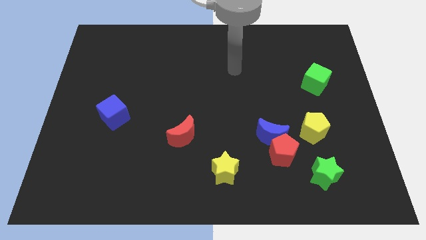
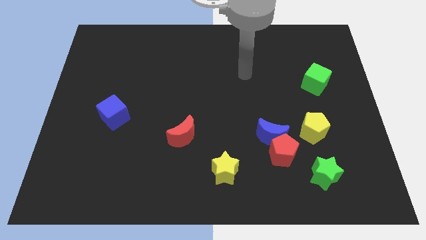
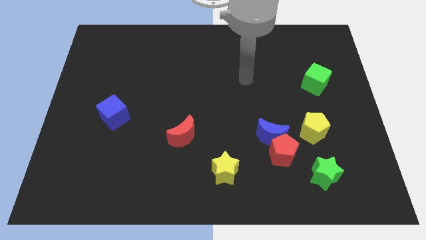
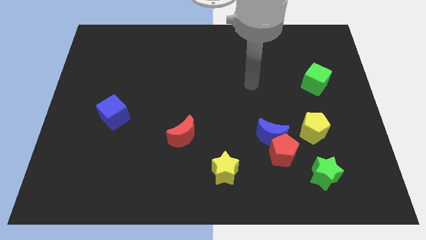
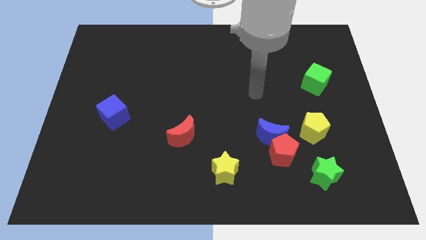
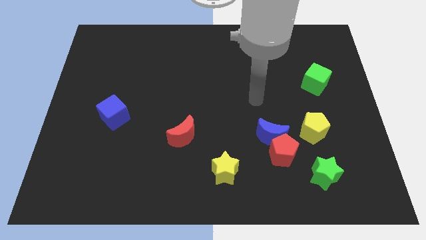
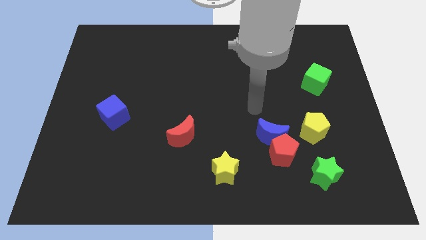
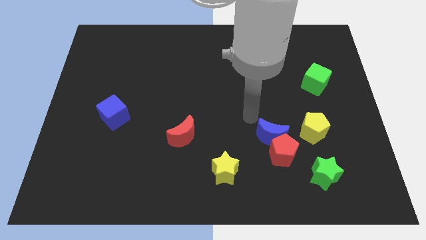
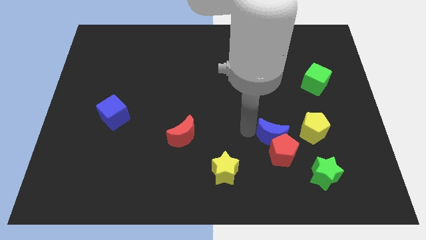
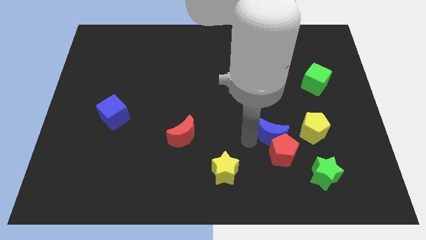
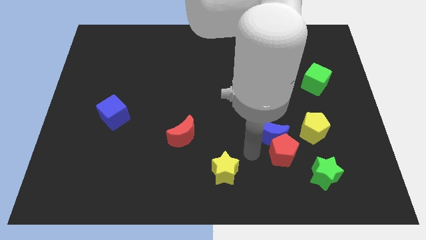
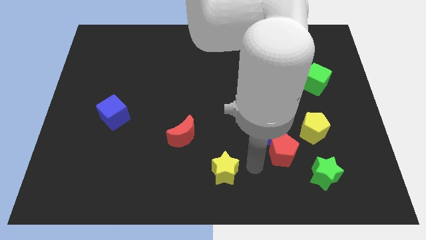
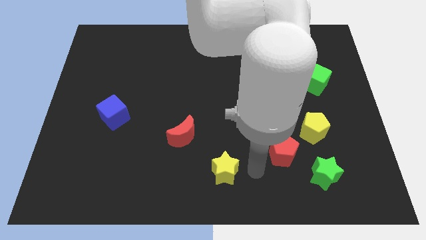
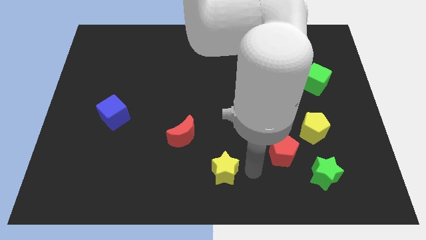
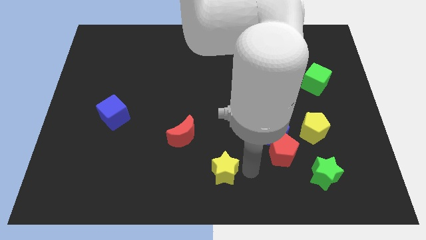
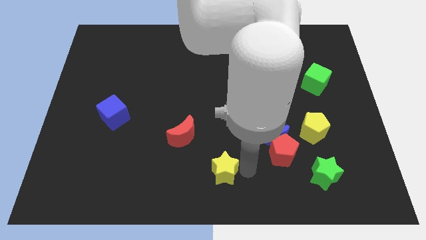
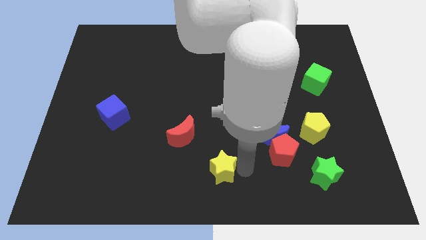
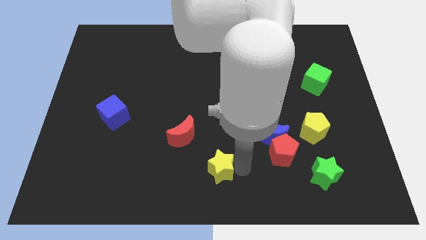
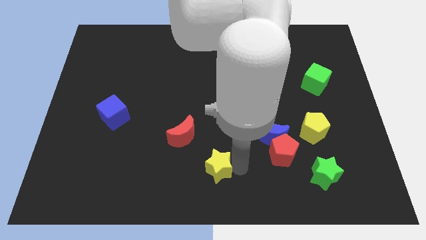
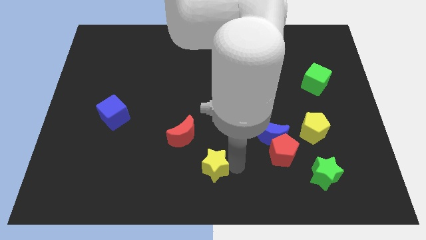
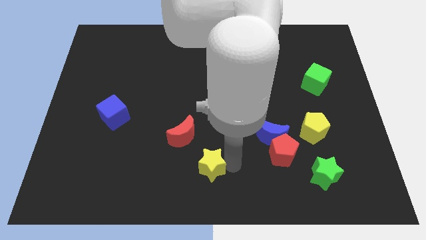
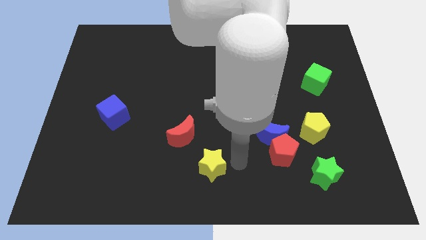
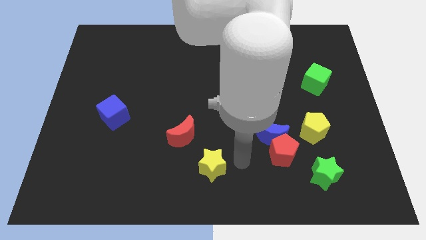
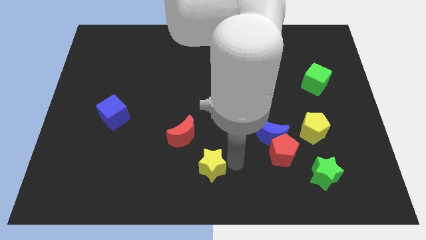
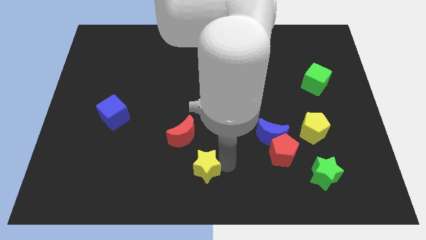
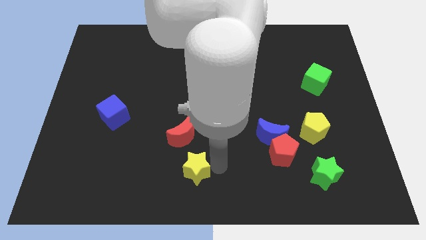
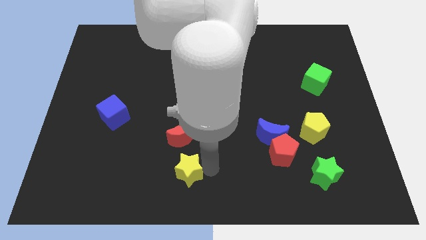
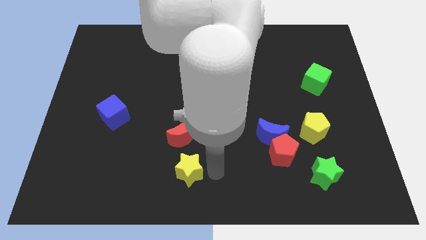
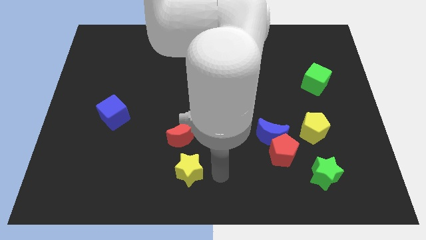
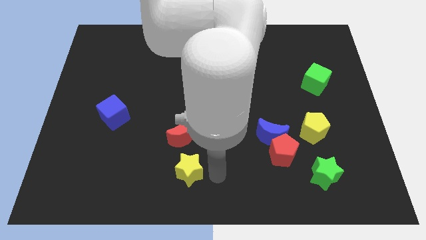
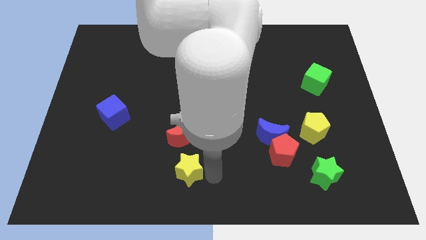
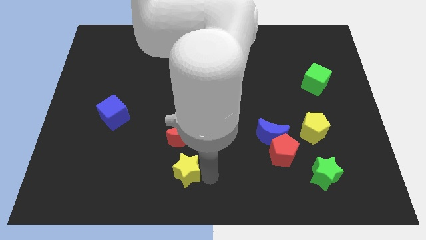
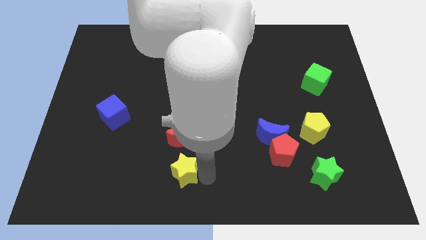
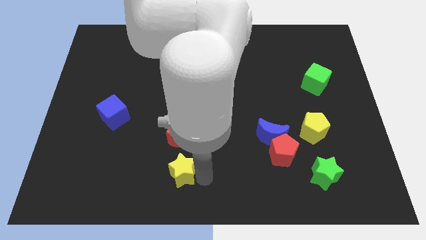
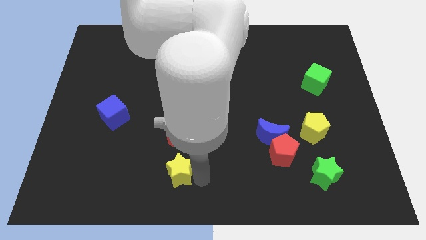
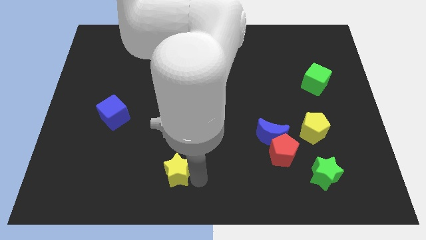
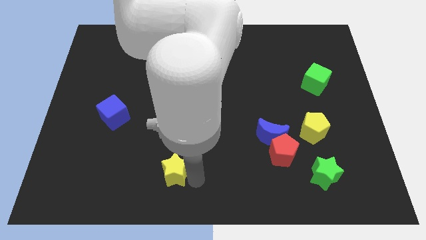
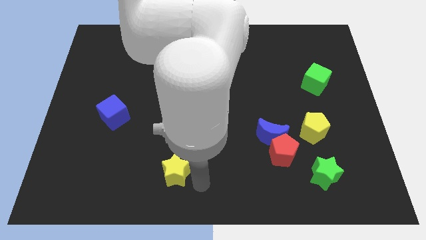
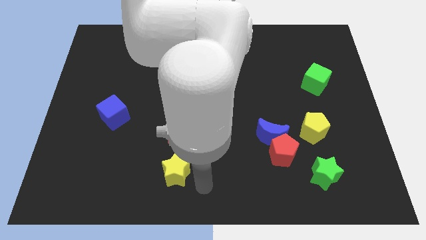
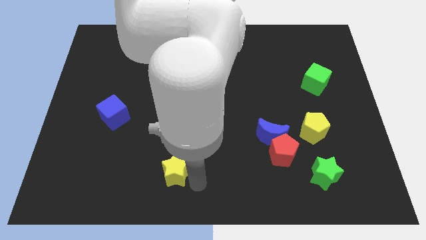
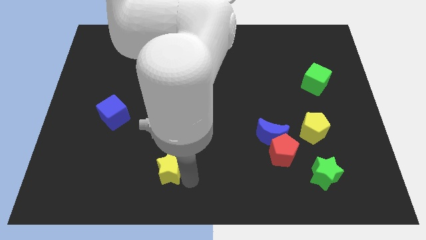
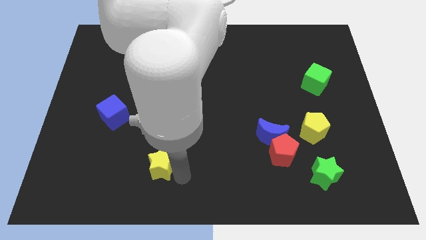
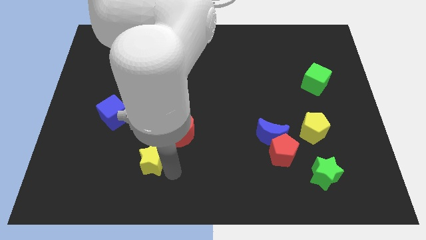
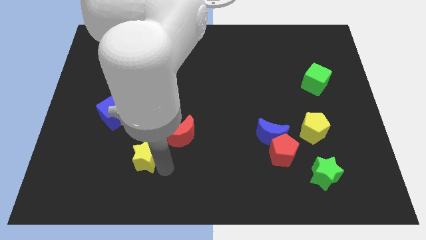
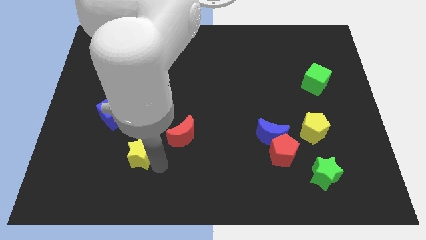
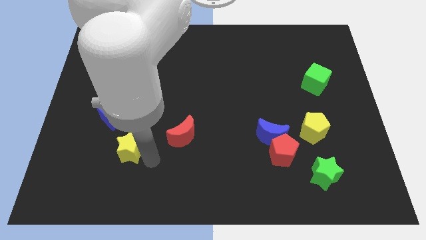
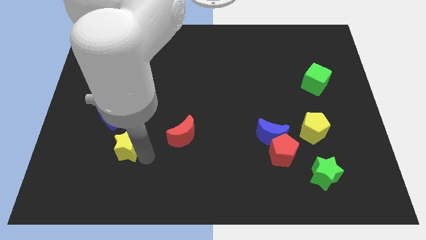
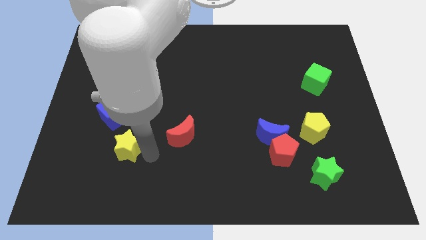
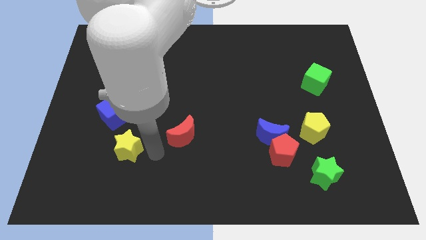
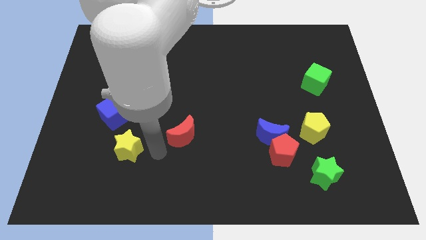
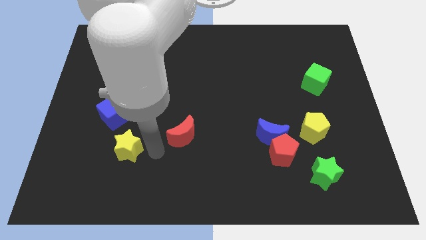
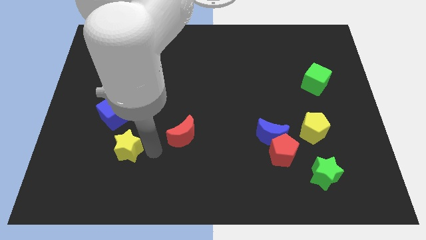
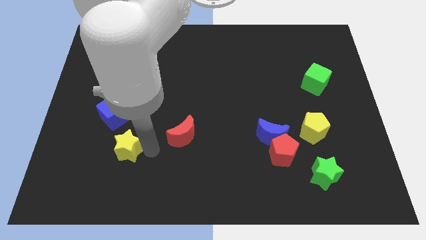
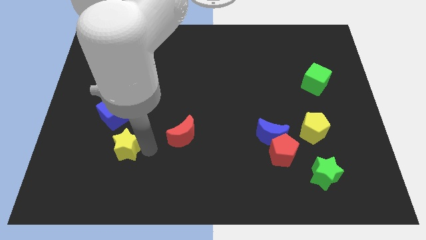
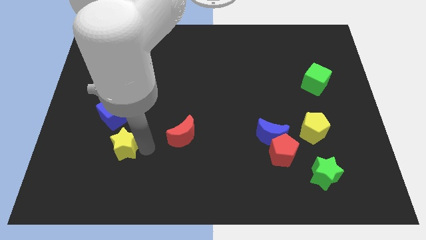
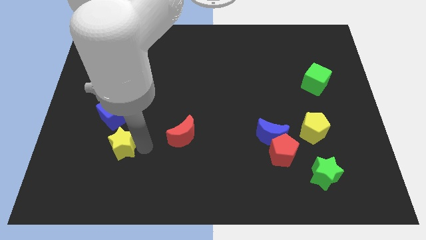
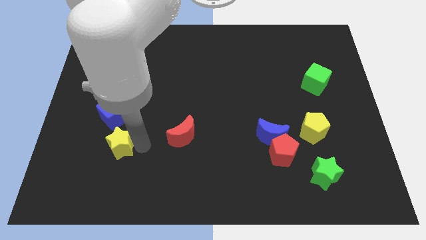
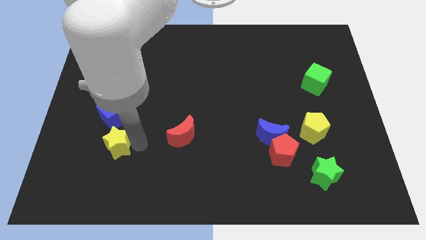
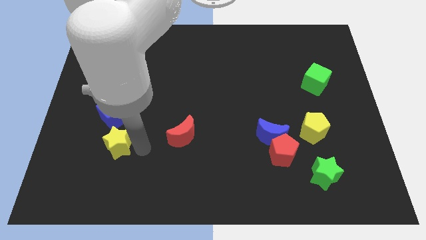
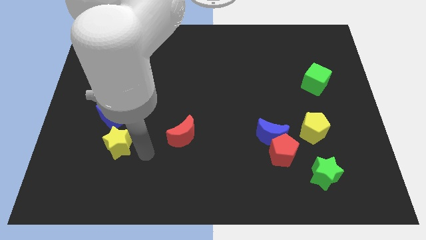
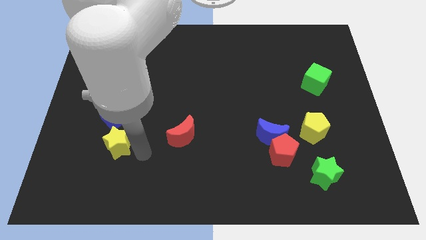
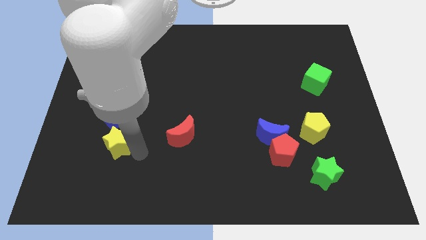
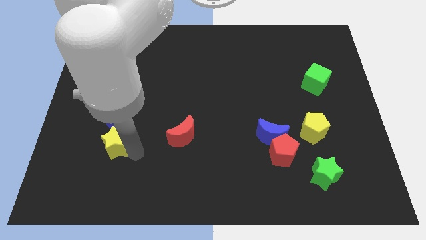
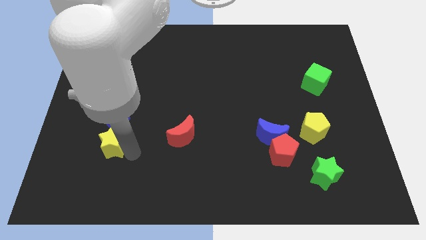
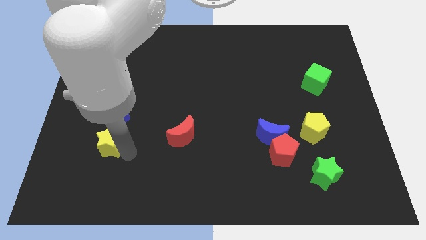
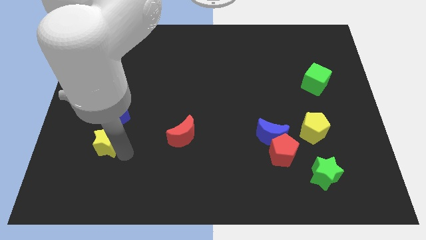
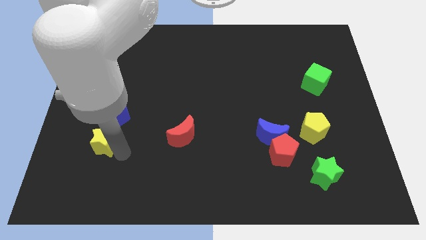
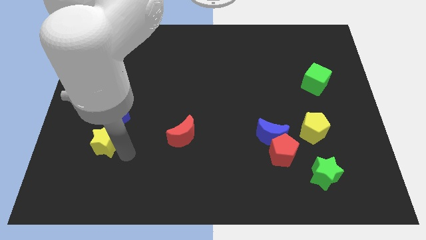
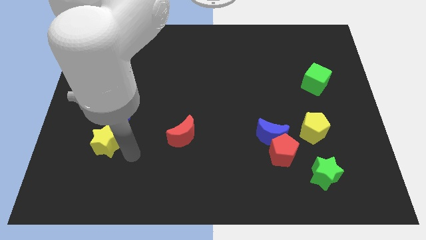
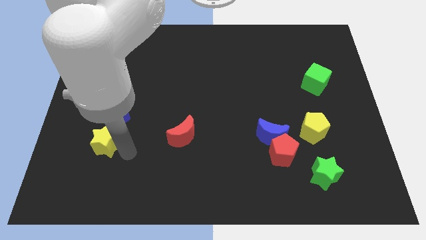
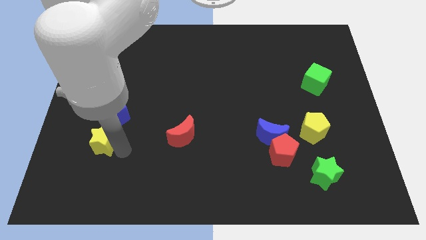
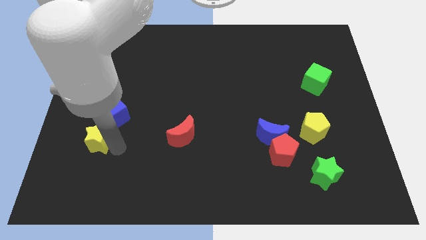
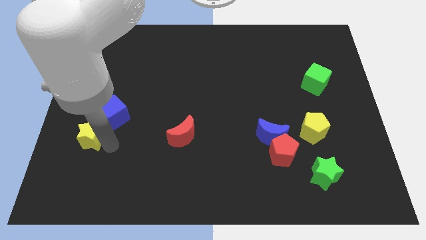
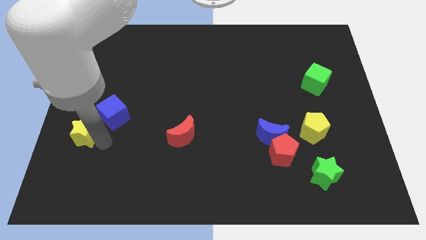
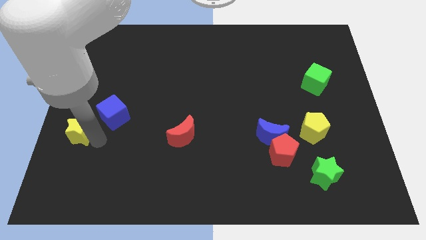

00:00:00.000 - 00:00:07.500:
put the yellow star to the left side of the board
